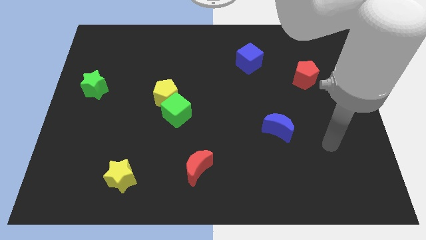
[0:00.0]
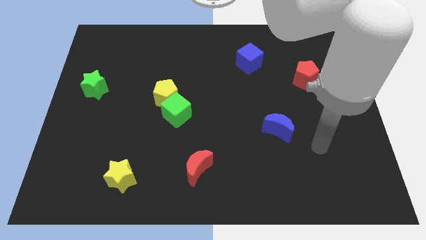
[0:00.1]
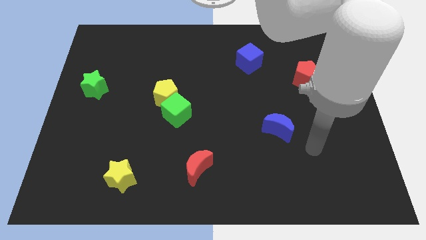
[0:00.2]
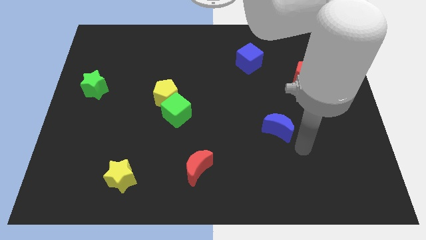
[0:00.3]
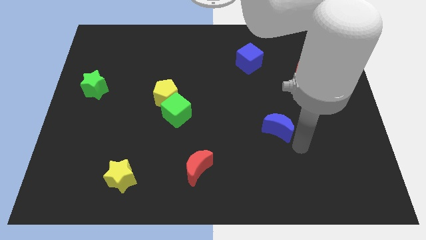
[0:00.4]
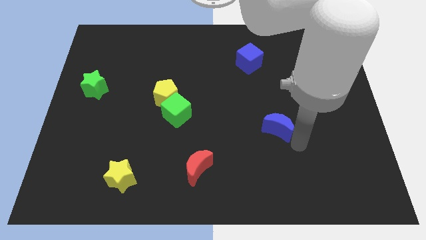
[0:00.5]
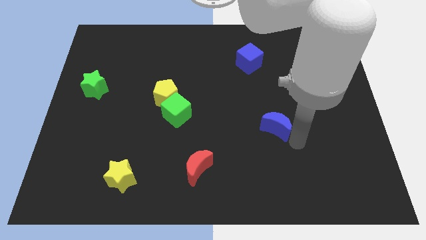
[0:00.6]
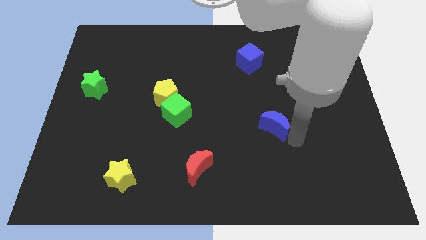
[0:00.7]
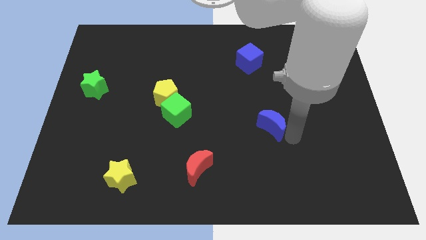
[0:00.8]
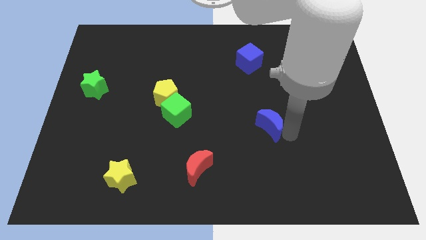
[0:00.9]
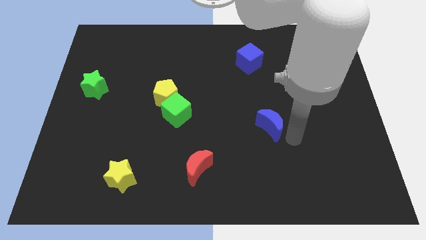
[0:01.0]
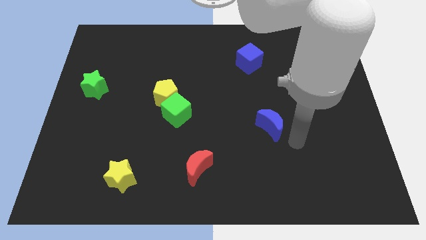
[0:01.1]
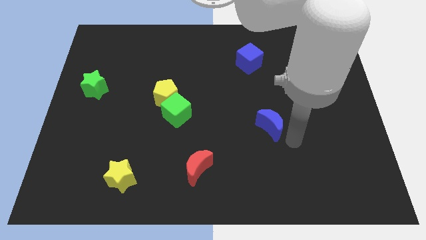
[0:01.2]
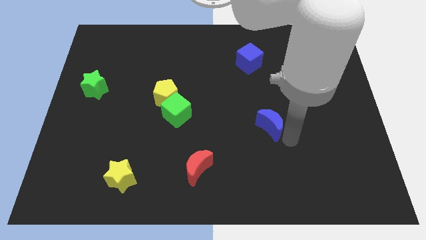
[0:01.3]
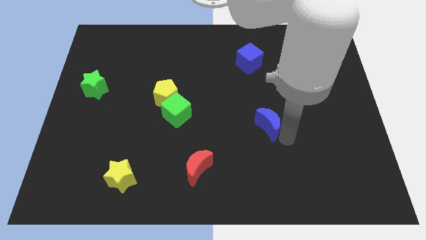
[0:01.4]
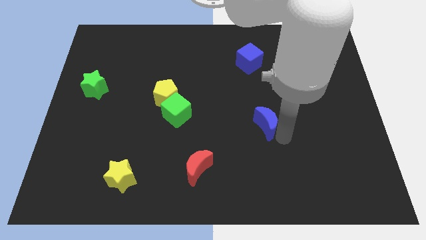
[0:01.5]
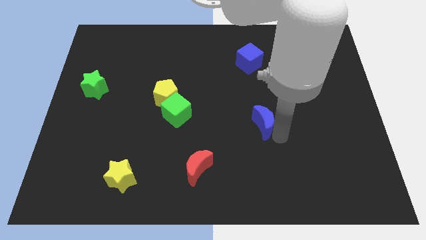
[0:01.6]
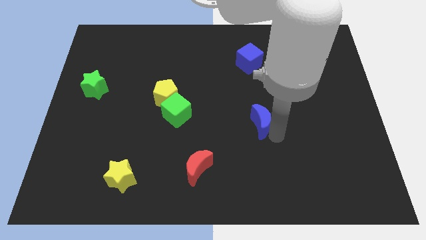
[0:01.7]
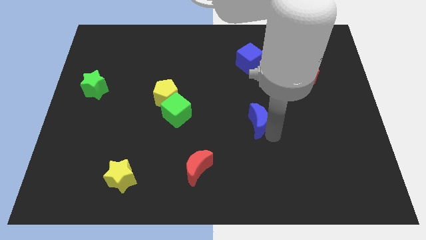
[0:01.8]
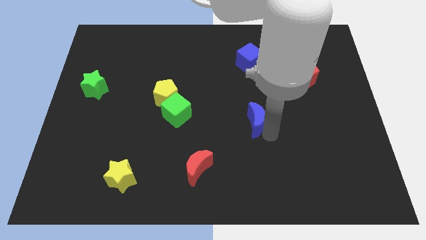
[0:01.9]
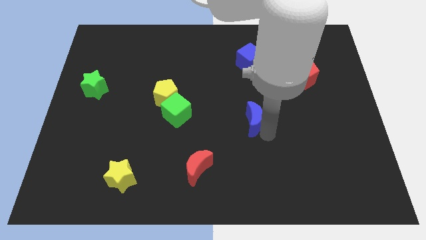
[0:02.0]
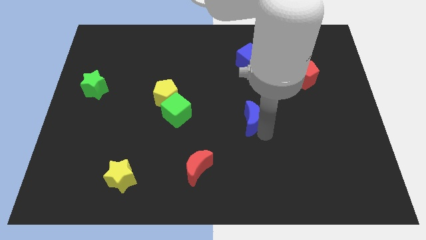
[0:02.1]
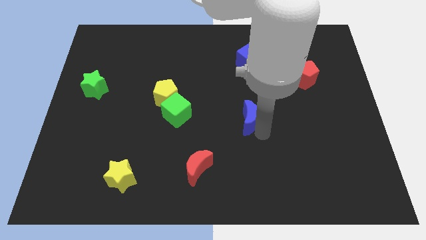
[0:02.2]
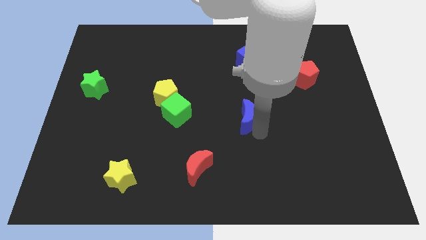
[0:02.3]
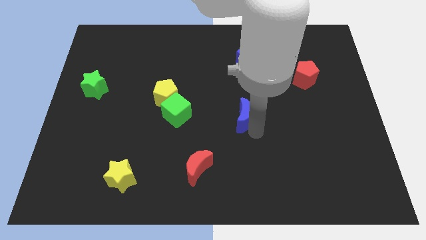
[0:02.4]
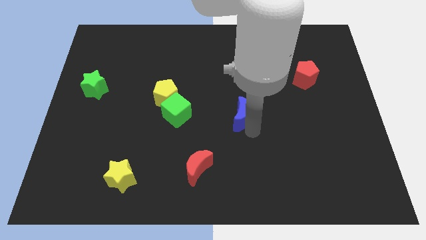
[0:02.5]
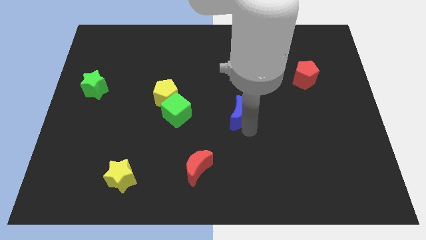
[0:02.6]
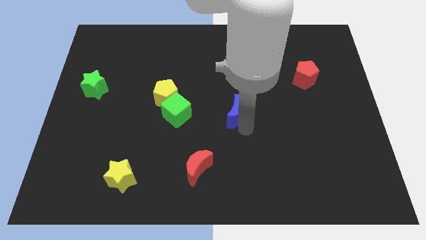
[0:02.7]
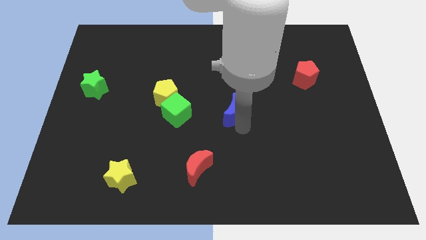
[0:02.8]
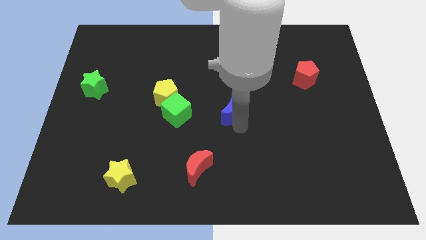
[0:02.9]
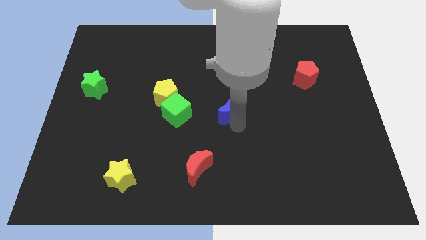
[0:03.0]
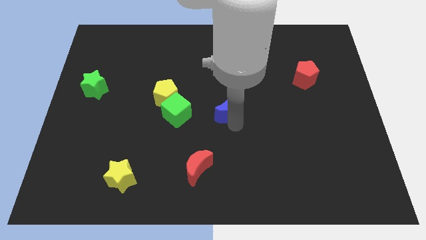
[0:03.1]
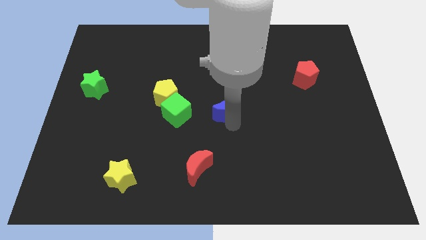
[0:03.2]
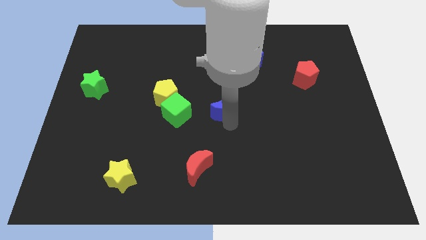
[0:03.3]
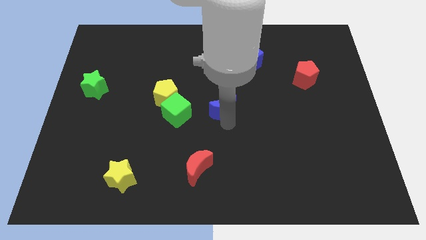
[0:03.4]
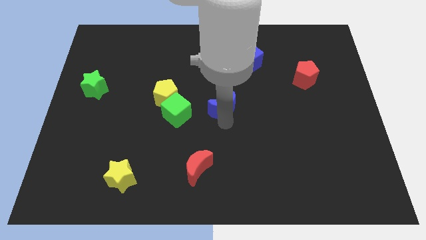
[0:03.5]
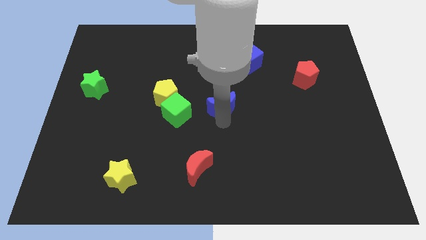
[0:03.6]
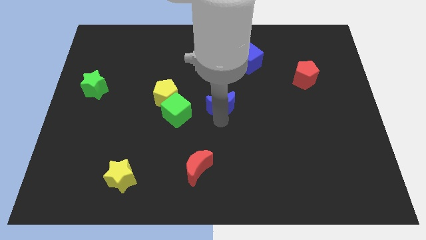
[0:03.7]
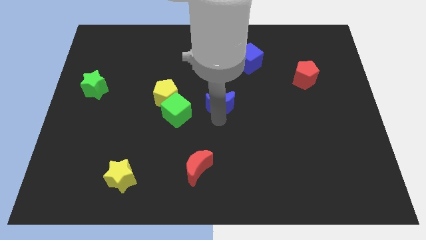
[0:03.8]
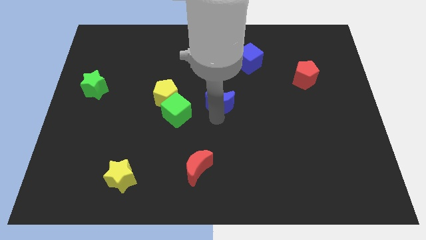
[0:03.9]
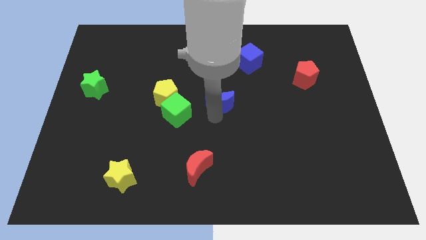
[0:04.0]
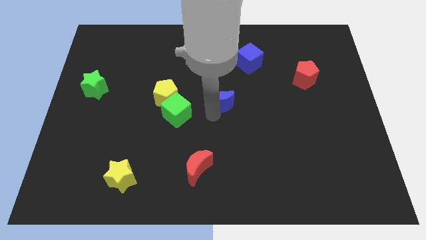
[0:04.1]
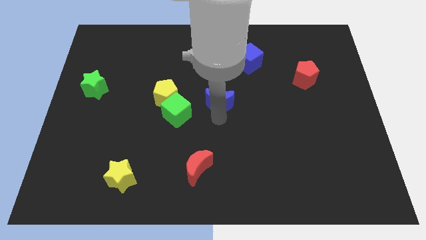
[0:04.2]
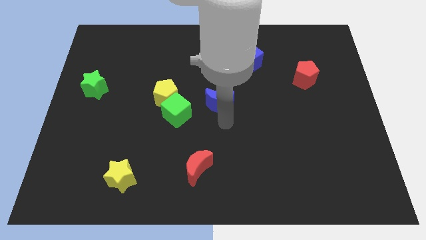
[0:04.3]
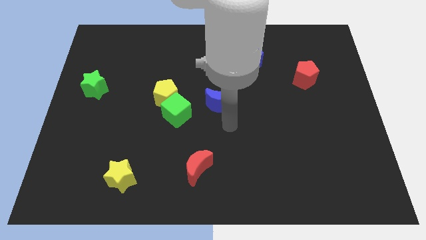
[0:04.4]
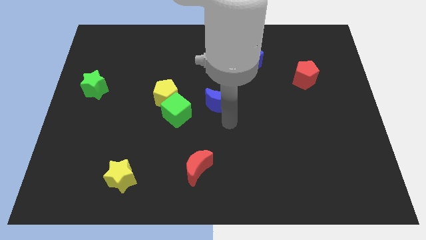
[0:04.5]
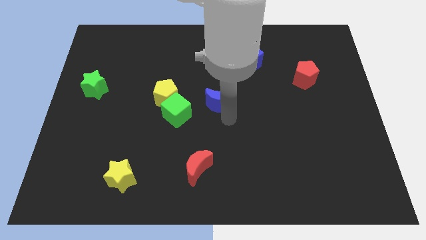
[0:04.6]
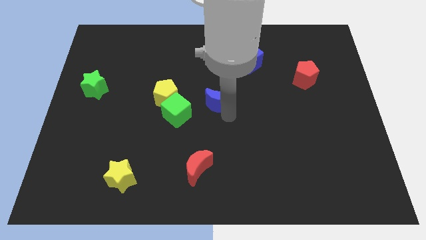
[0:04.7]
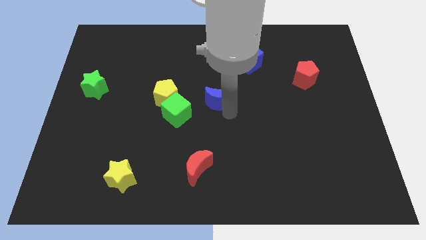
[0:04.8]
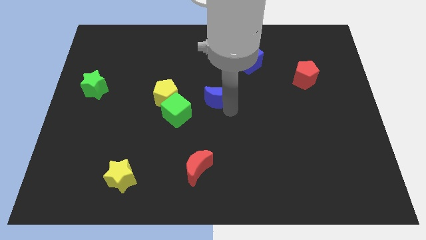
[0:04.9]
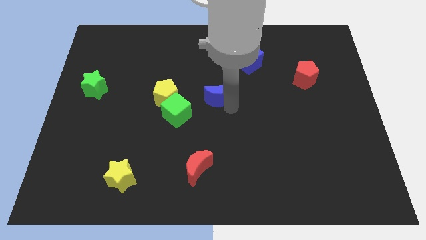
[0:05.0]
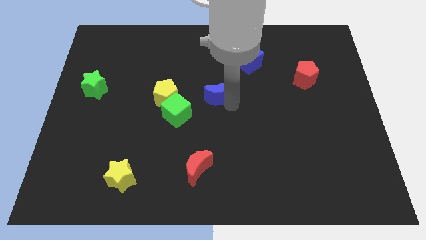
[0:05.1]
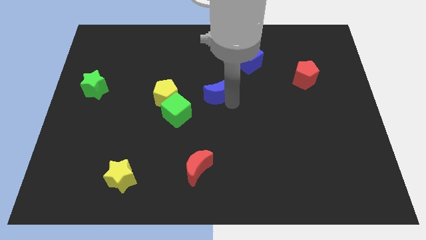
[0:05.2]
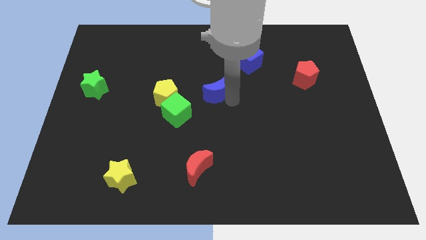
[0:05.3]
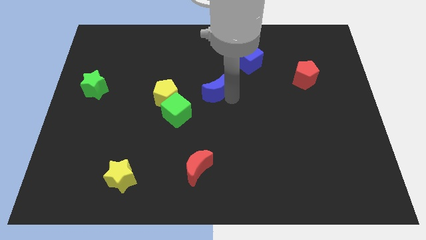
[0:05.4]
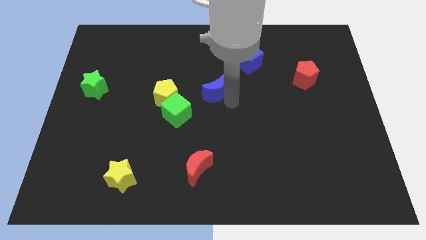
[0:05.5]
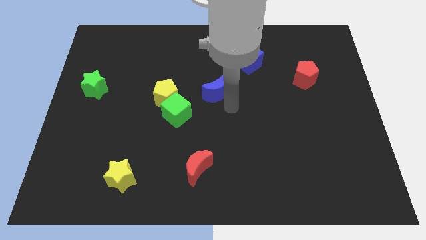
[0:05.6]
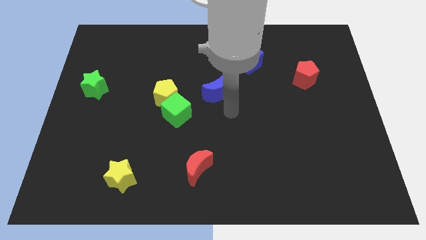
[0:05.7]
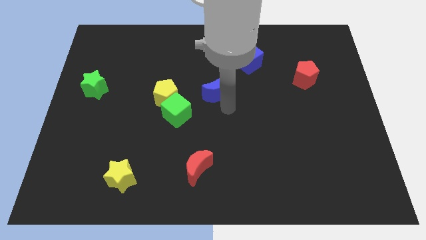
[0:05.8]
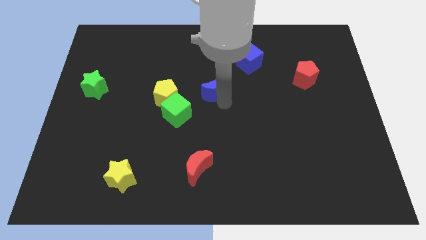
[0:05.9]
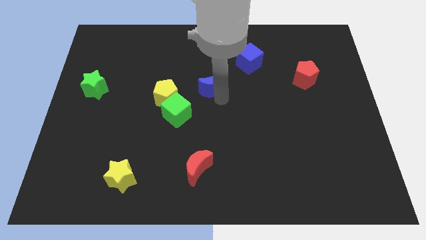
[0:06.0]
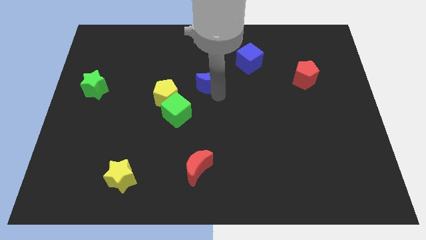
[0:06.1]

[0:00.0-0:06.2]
move the blue moon upwards and to the left

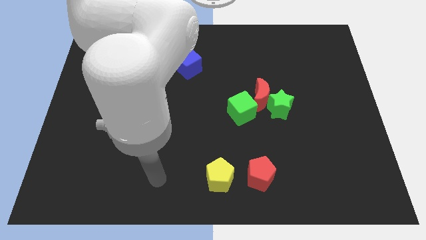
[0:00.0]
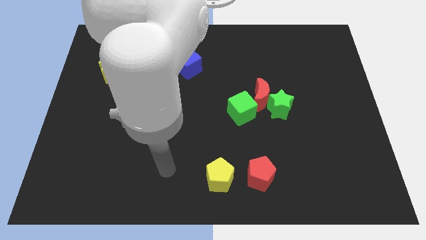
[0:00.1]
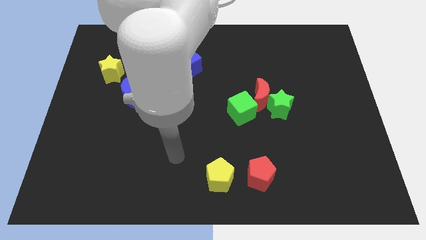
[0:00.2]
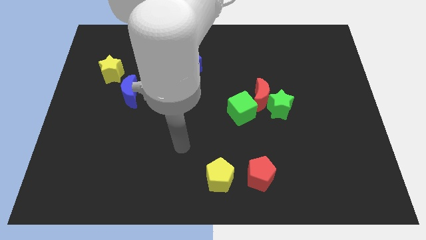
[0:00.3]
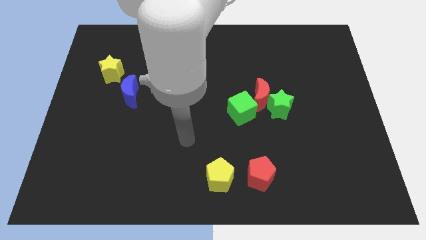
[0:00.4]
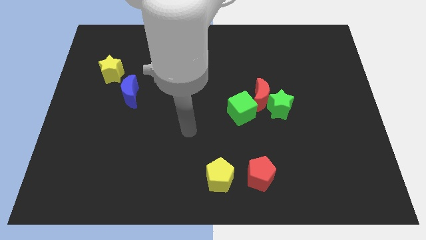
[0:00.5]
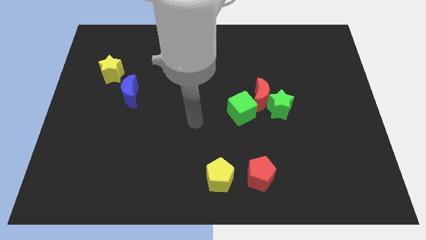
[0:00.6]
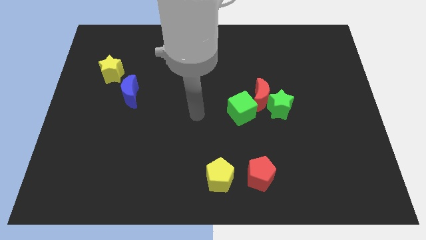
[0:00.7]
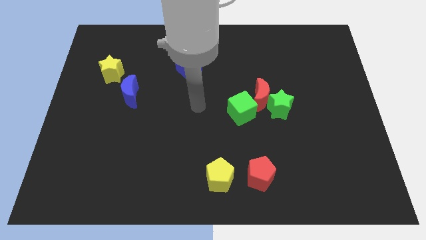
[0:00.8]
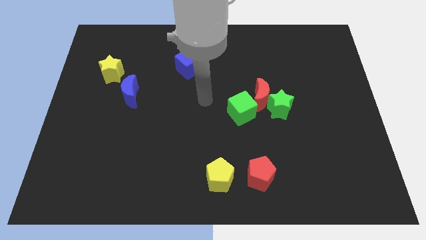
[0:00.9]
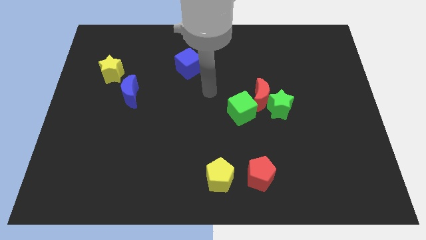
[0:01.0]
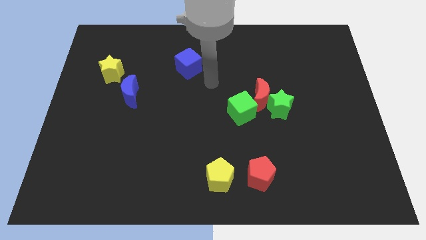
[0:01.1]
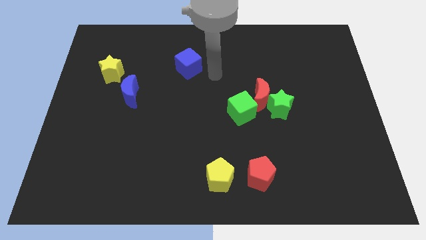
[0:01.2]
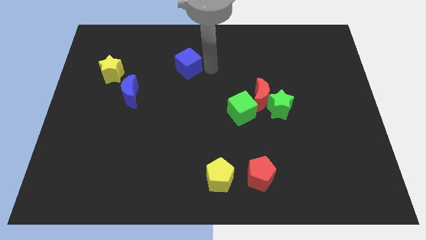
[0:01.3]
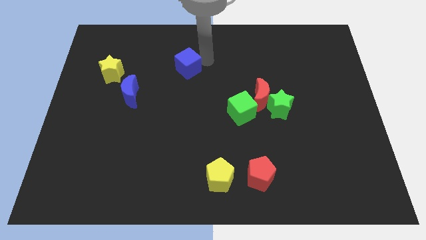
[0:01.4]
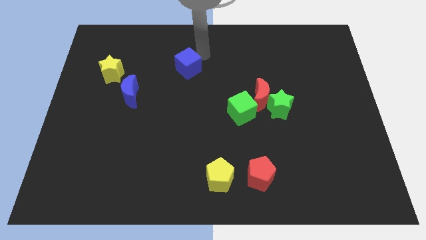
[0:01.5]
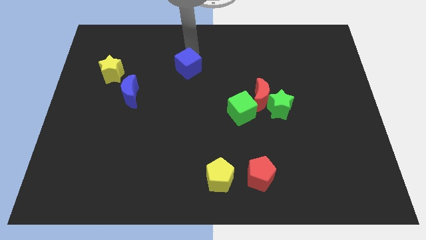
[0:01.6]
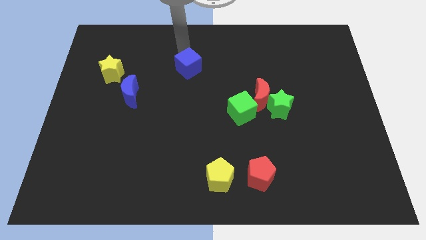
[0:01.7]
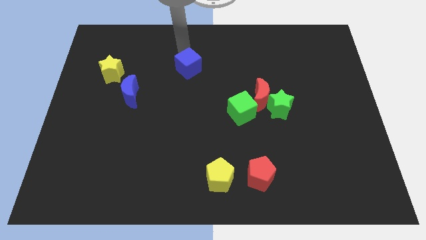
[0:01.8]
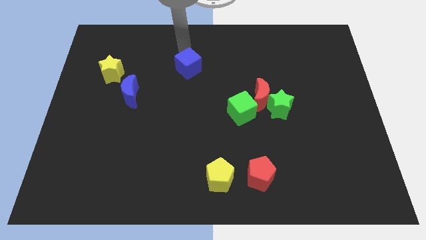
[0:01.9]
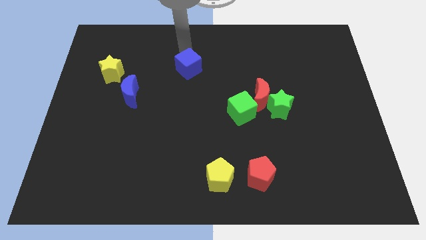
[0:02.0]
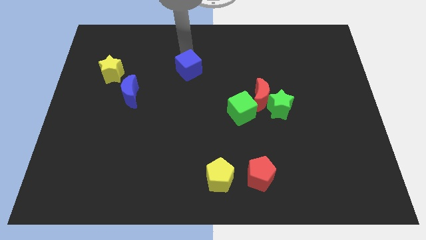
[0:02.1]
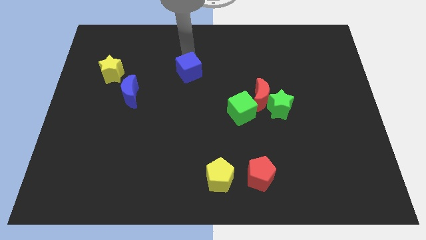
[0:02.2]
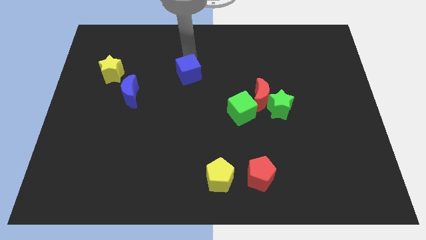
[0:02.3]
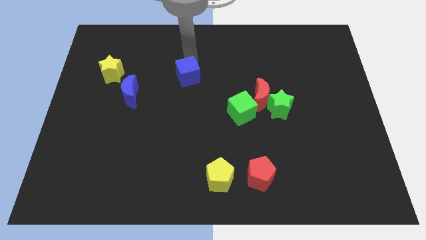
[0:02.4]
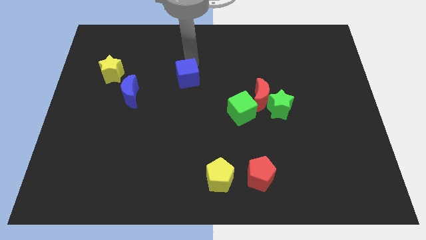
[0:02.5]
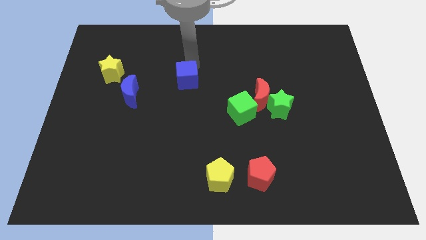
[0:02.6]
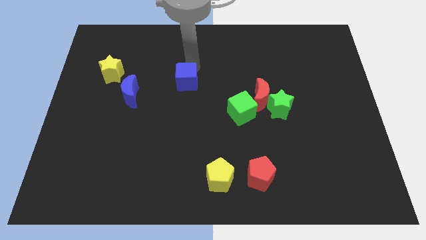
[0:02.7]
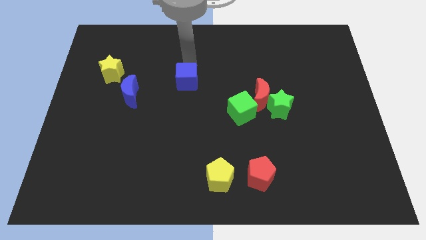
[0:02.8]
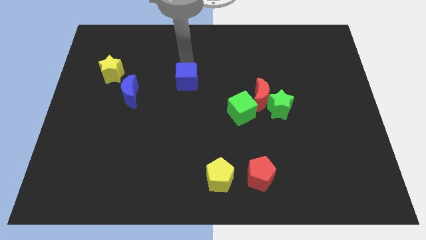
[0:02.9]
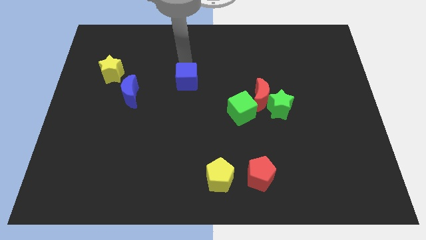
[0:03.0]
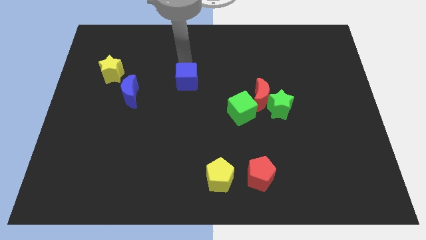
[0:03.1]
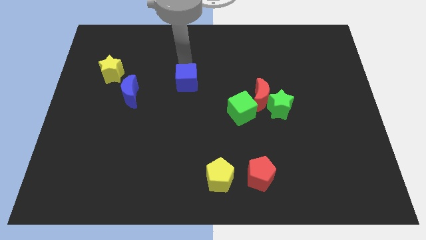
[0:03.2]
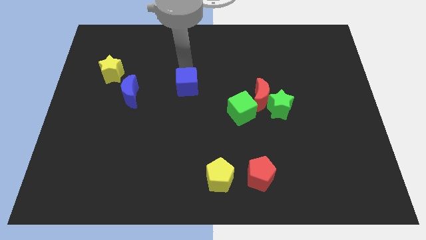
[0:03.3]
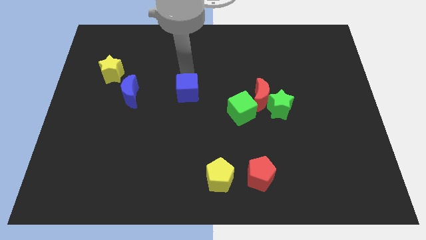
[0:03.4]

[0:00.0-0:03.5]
slide the blue cube a little downwards
